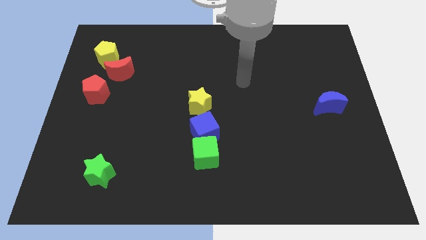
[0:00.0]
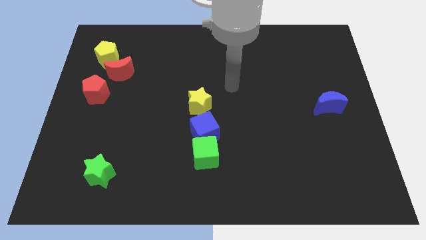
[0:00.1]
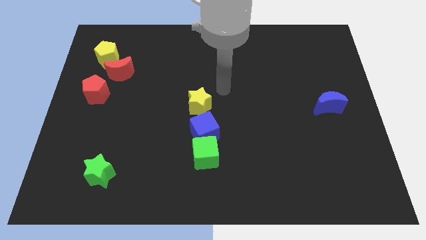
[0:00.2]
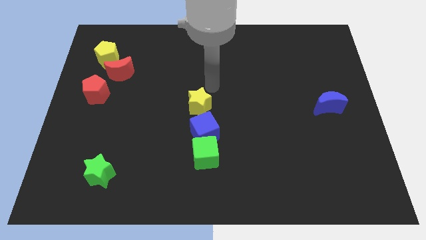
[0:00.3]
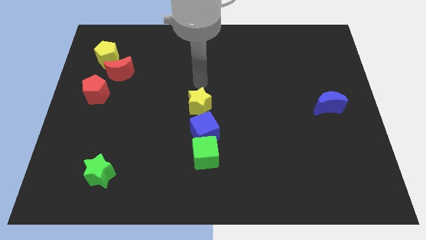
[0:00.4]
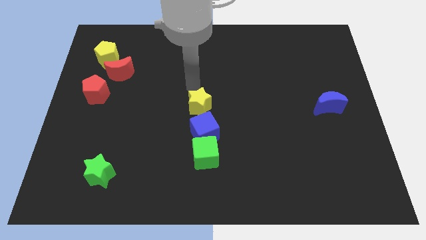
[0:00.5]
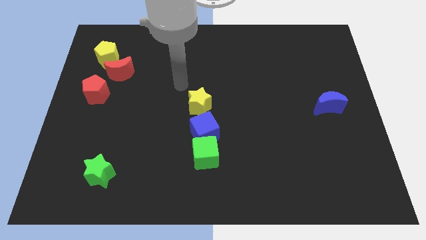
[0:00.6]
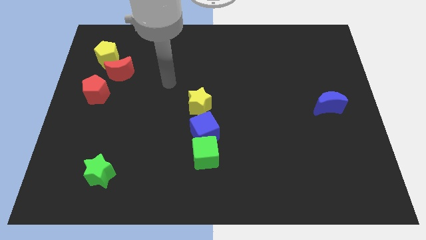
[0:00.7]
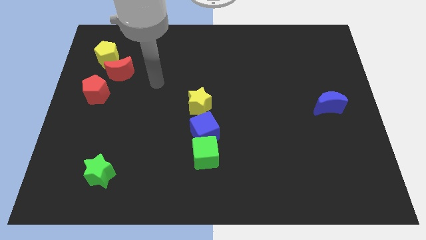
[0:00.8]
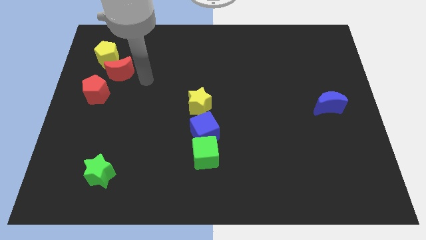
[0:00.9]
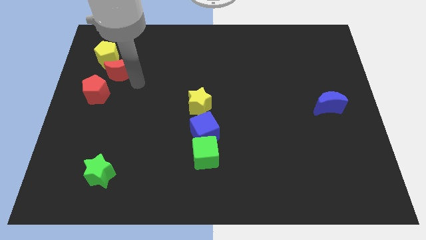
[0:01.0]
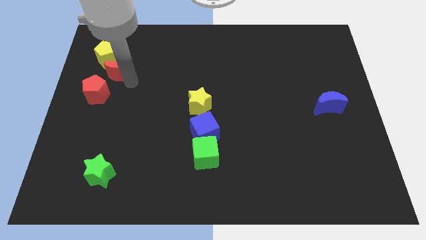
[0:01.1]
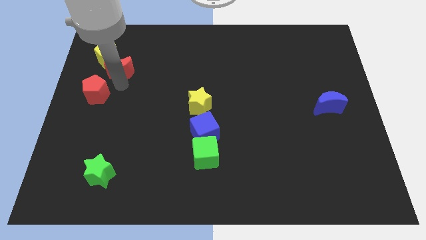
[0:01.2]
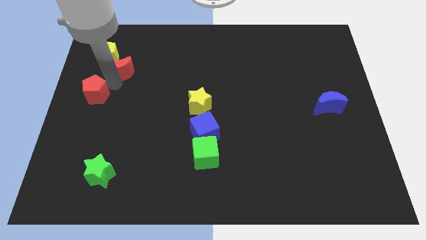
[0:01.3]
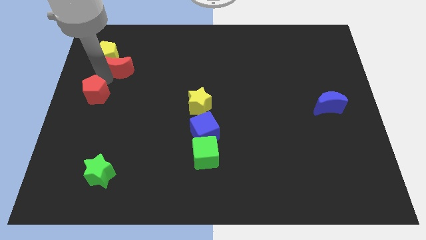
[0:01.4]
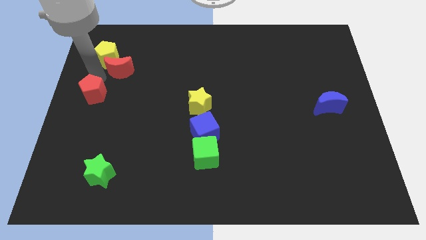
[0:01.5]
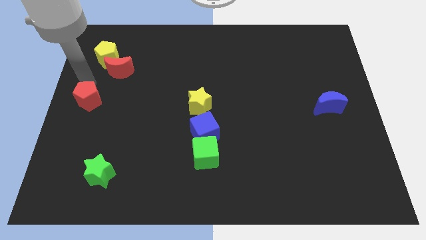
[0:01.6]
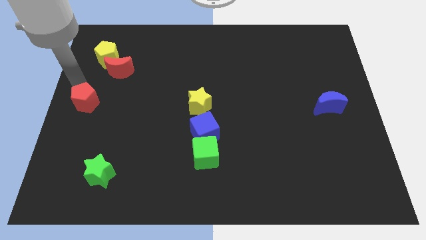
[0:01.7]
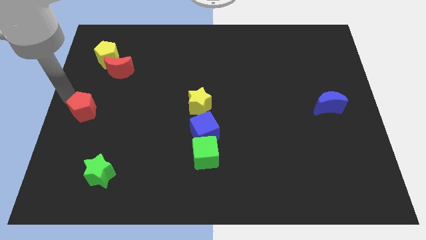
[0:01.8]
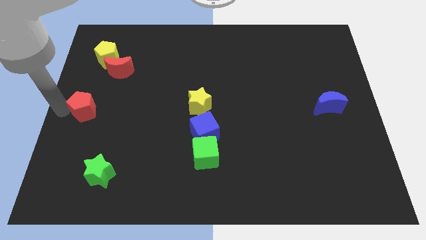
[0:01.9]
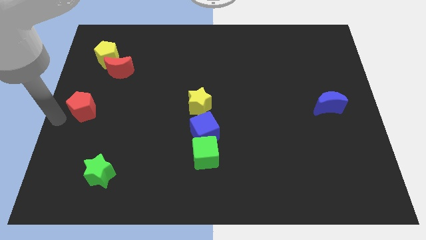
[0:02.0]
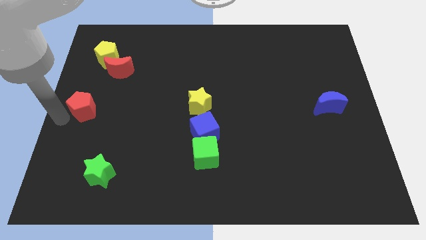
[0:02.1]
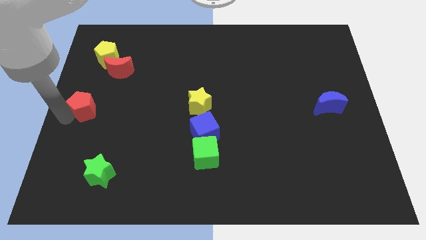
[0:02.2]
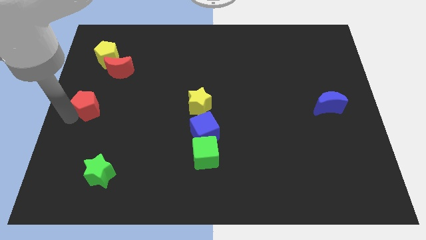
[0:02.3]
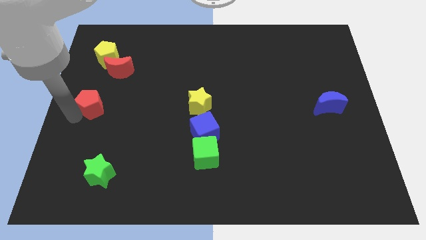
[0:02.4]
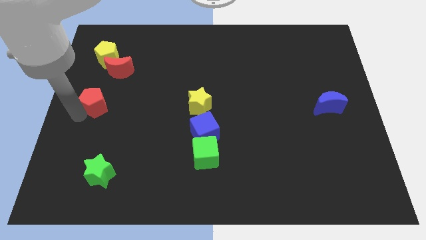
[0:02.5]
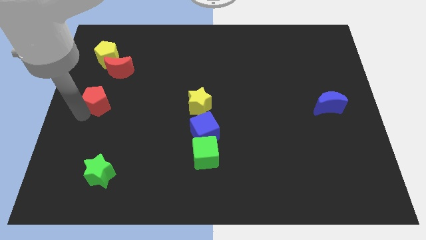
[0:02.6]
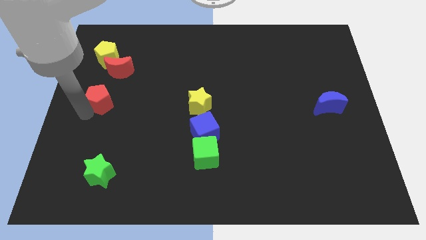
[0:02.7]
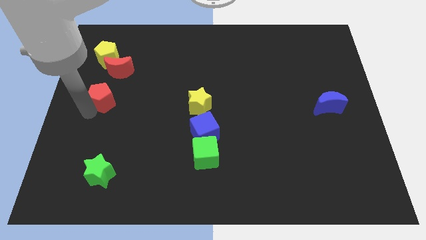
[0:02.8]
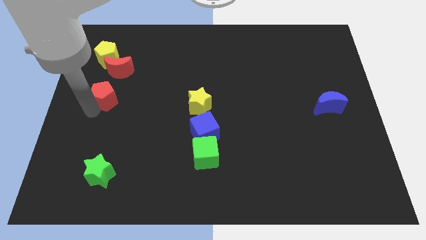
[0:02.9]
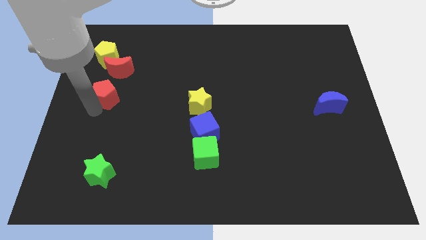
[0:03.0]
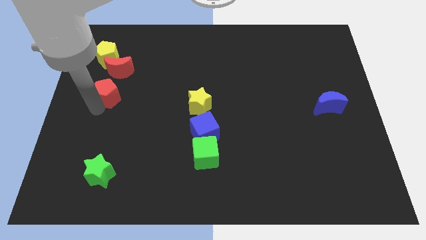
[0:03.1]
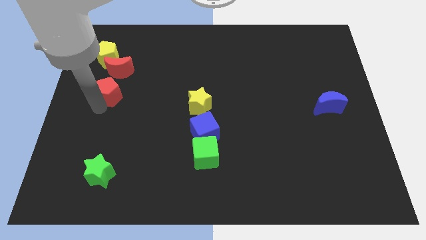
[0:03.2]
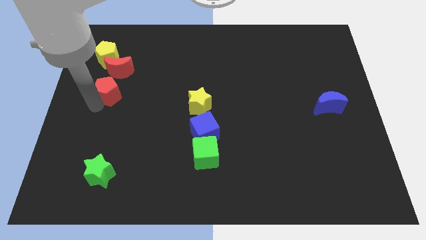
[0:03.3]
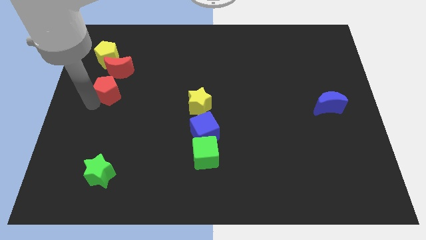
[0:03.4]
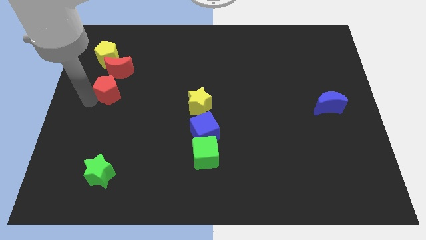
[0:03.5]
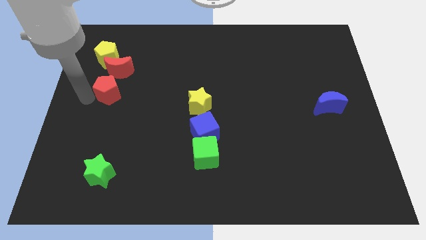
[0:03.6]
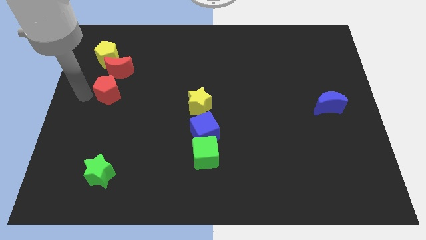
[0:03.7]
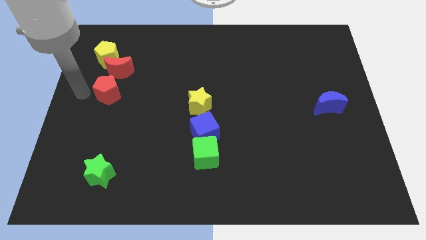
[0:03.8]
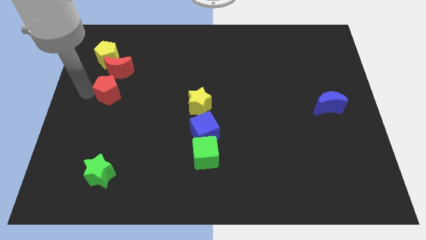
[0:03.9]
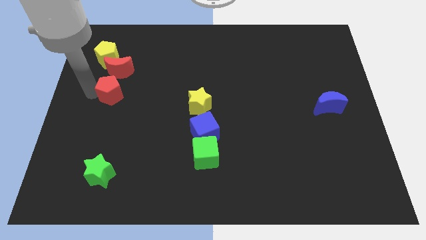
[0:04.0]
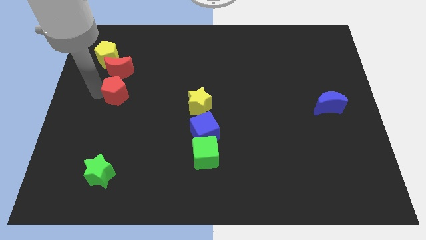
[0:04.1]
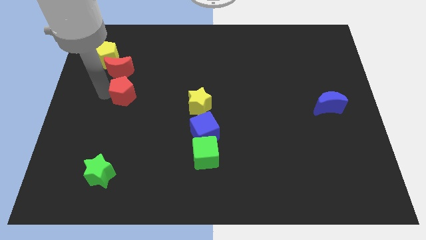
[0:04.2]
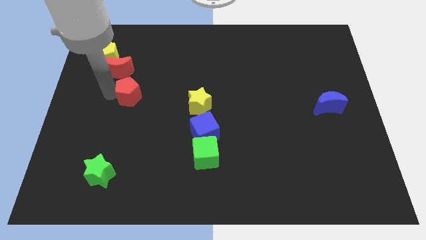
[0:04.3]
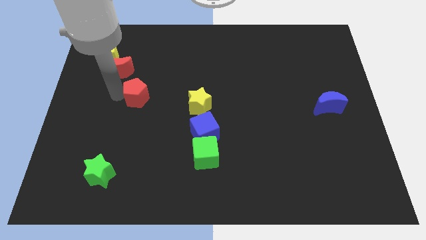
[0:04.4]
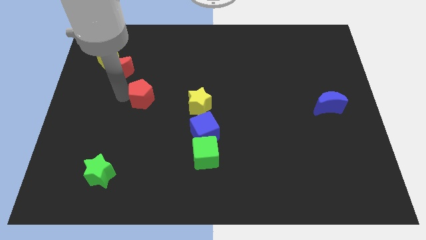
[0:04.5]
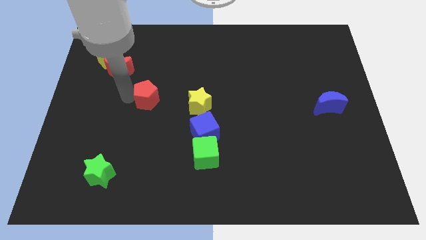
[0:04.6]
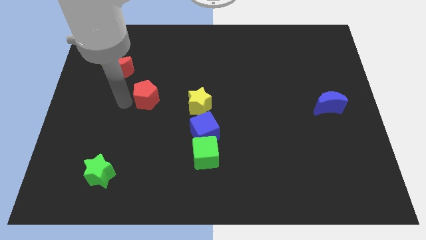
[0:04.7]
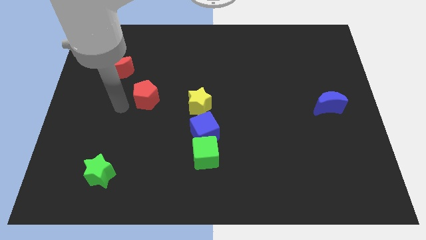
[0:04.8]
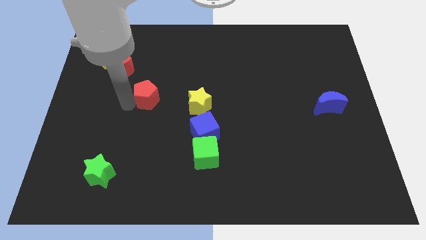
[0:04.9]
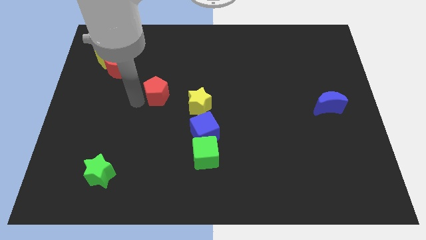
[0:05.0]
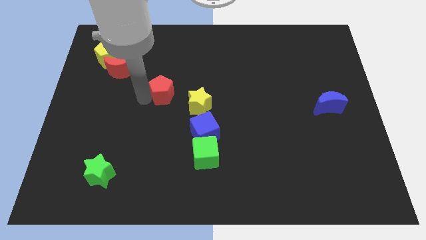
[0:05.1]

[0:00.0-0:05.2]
push the red pentagon to the center of the board

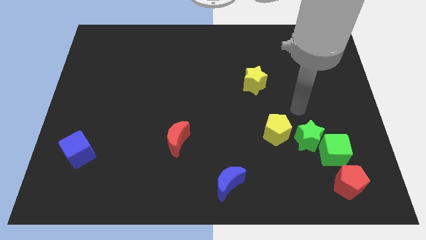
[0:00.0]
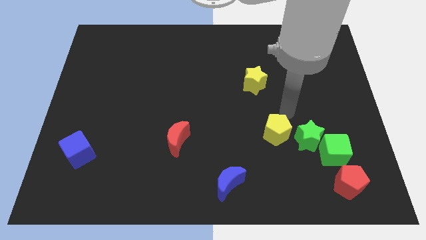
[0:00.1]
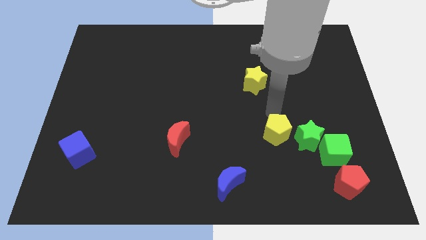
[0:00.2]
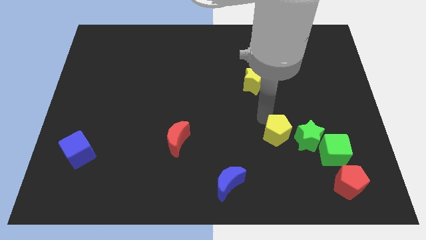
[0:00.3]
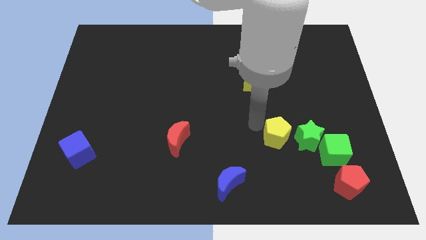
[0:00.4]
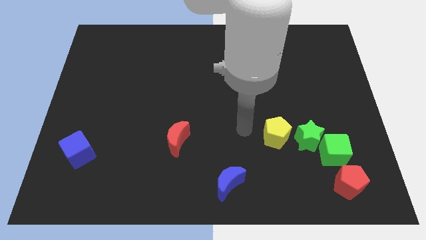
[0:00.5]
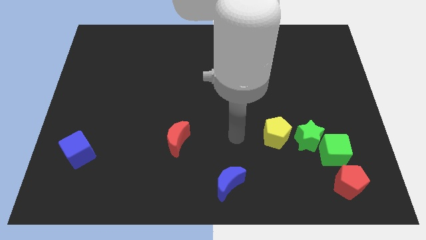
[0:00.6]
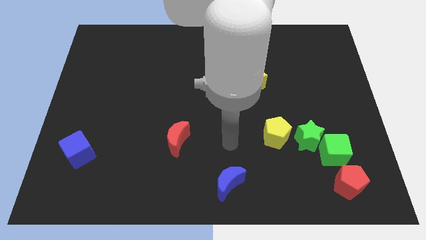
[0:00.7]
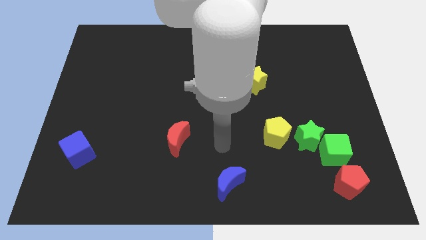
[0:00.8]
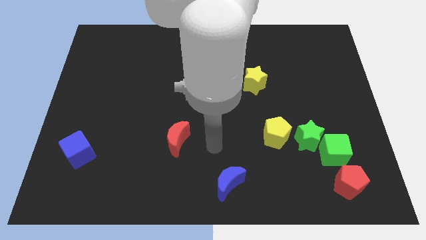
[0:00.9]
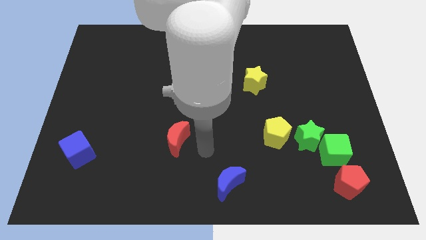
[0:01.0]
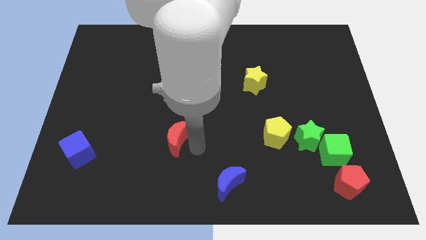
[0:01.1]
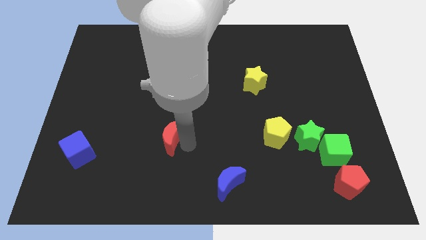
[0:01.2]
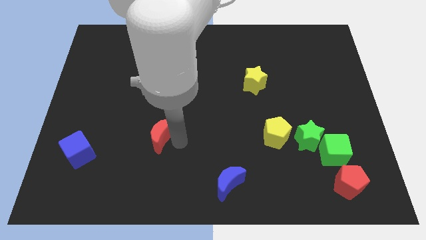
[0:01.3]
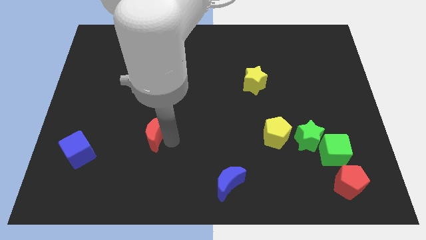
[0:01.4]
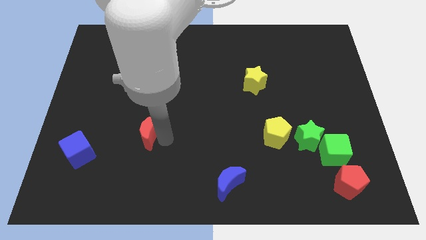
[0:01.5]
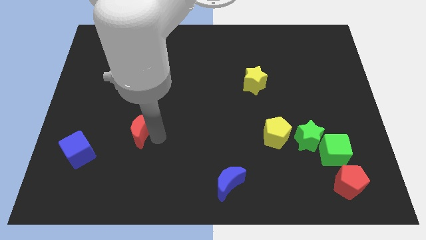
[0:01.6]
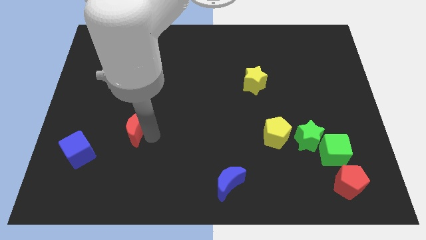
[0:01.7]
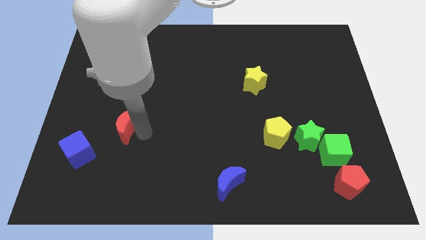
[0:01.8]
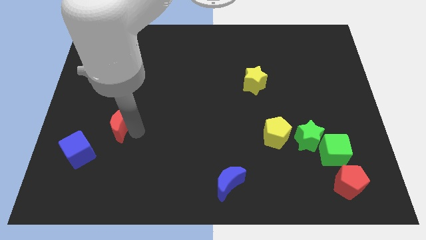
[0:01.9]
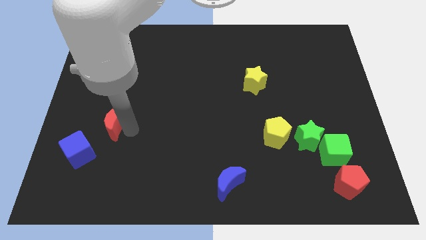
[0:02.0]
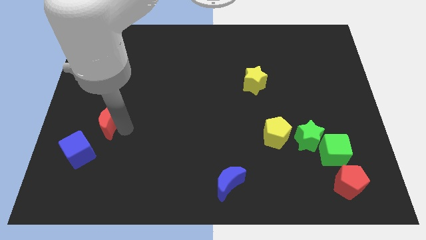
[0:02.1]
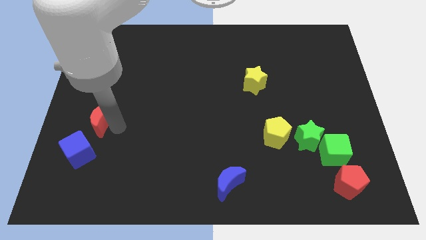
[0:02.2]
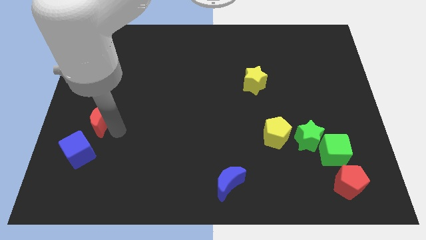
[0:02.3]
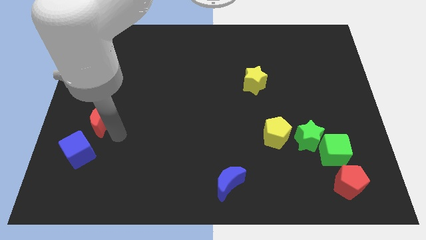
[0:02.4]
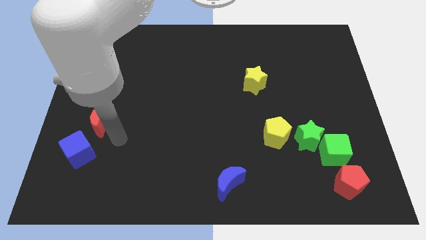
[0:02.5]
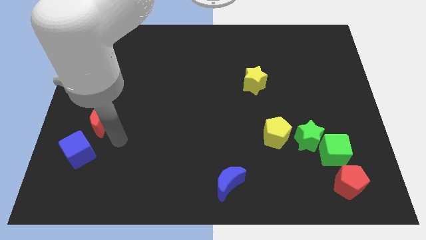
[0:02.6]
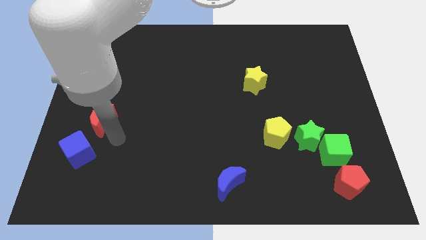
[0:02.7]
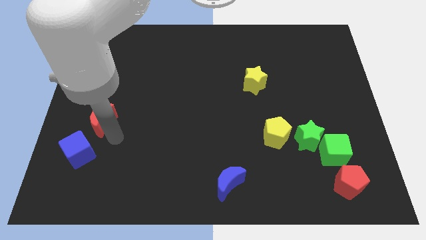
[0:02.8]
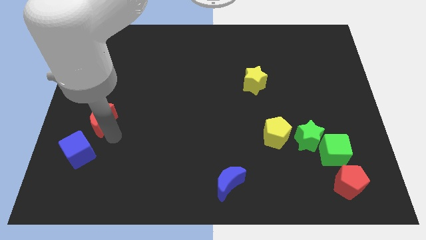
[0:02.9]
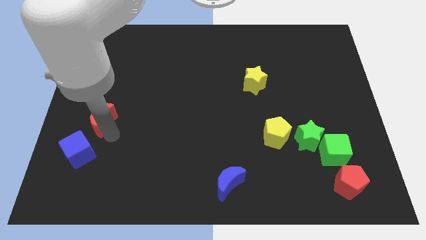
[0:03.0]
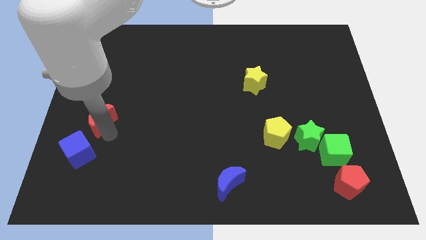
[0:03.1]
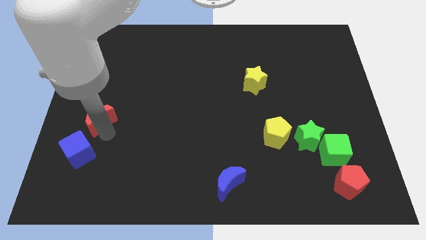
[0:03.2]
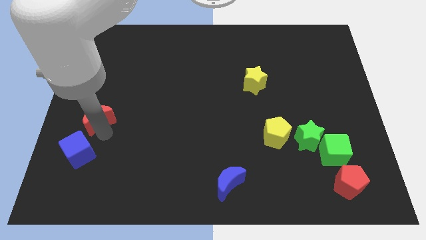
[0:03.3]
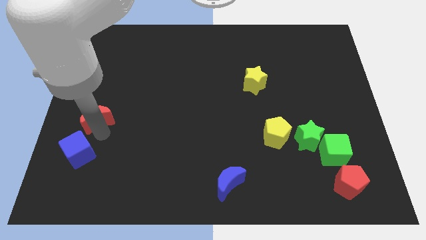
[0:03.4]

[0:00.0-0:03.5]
slide the red moon to the left side
